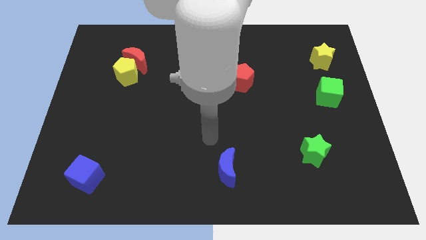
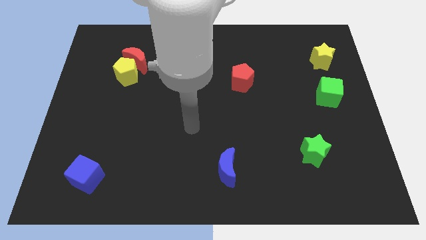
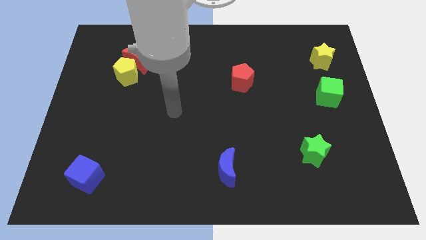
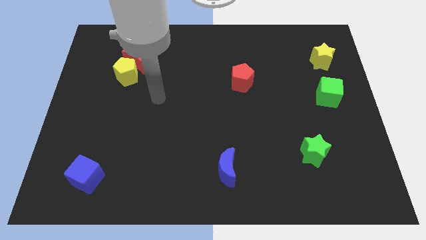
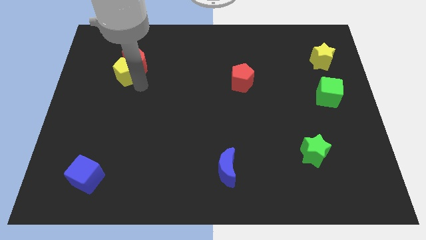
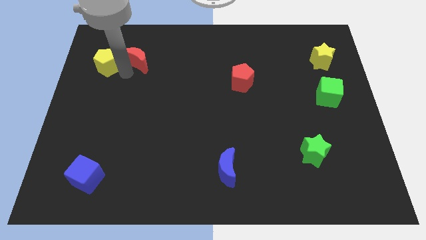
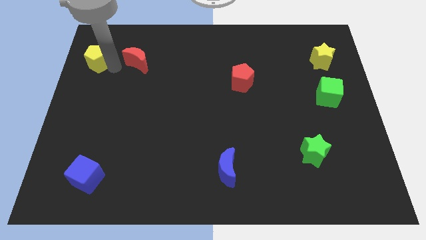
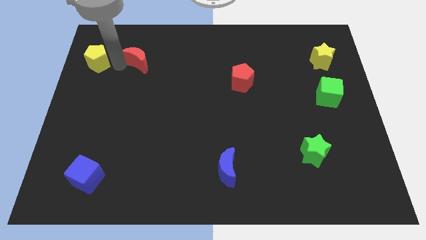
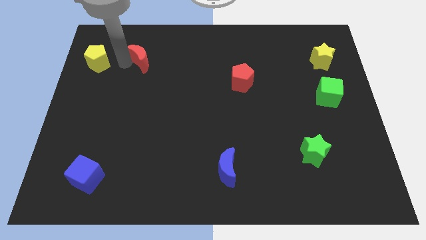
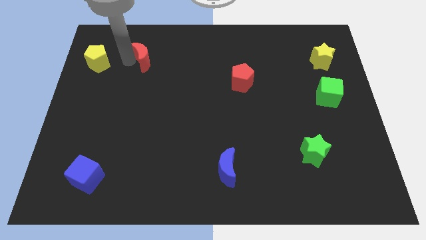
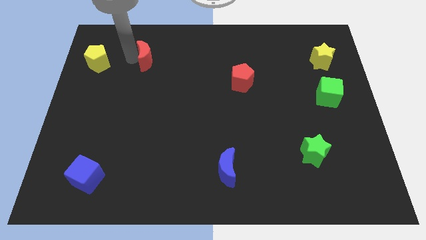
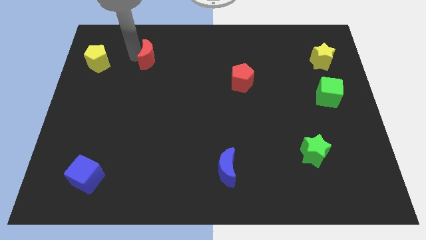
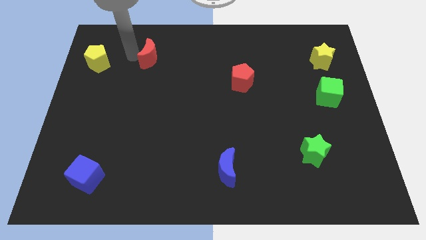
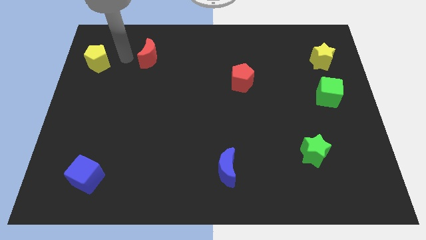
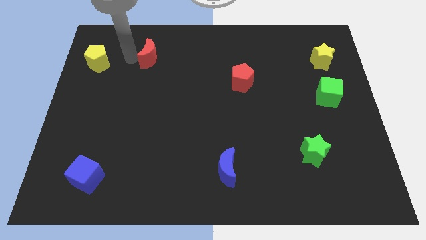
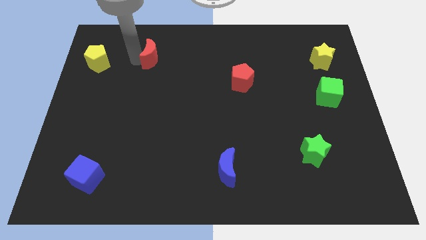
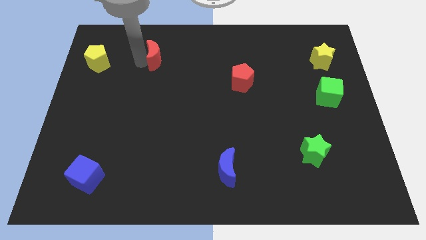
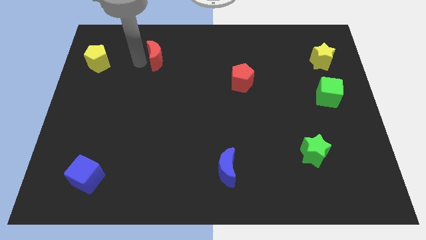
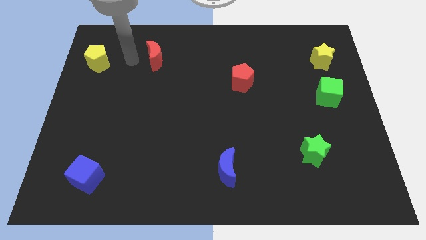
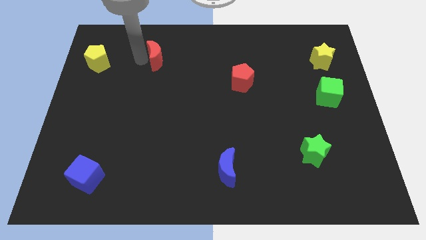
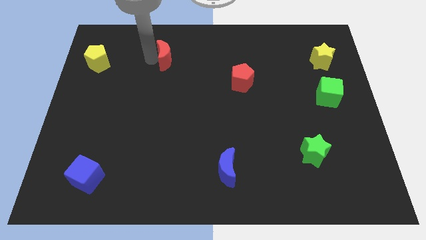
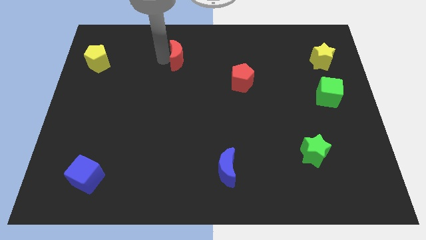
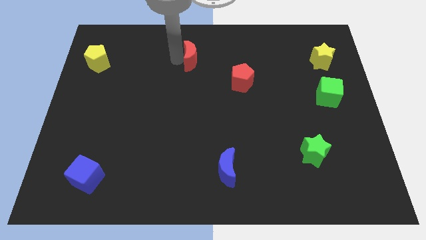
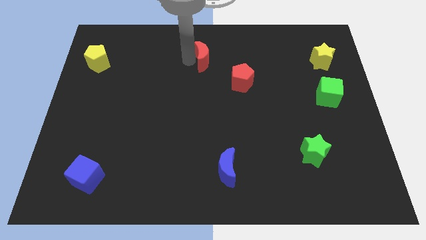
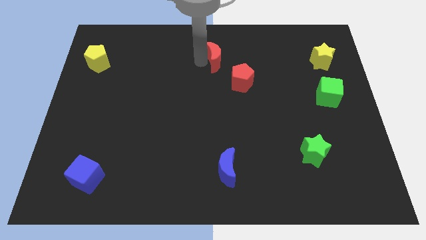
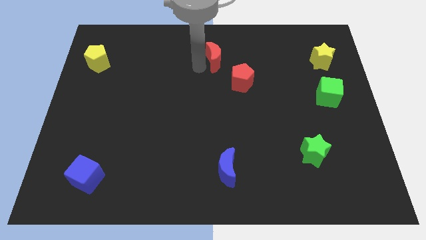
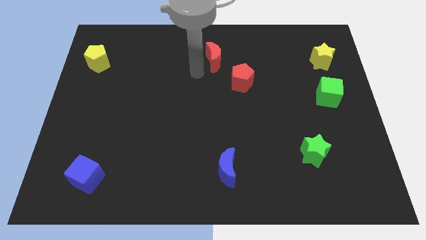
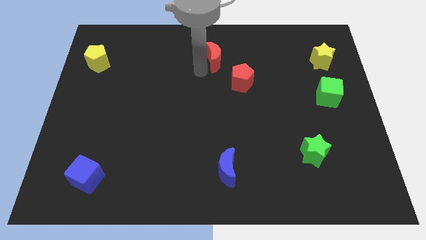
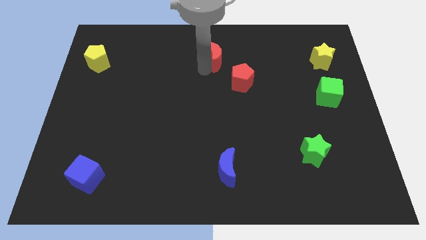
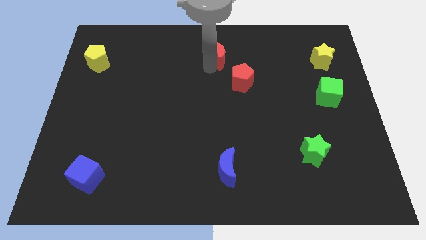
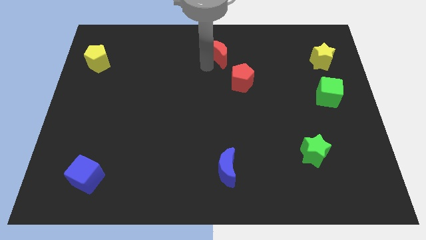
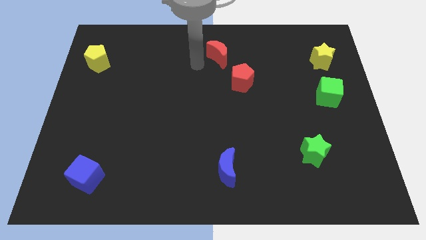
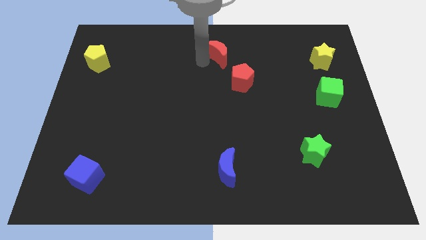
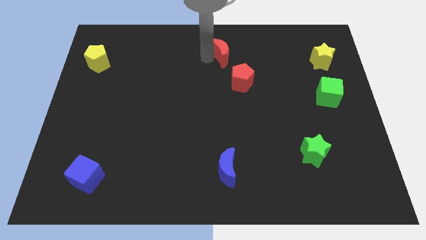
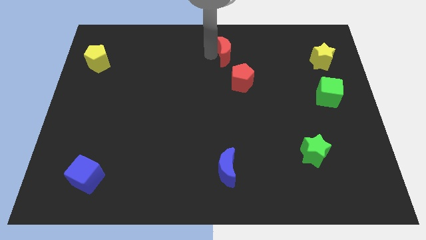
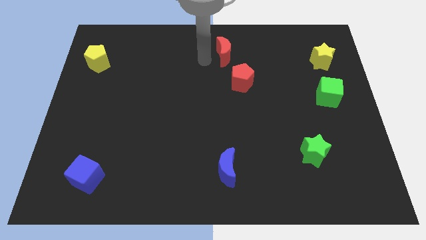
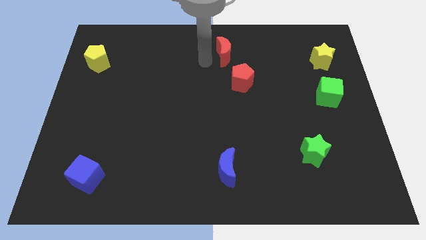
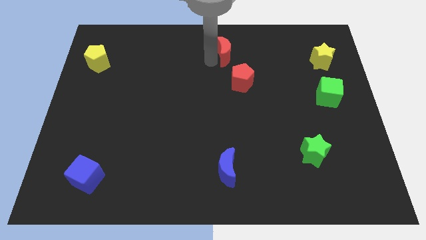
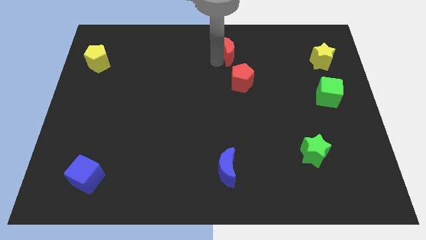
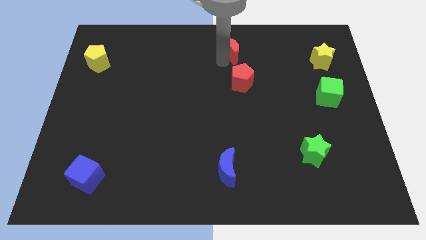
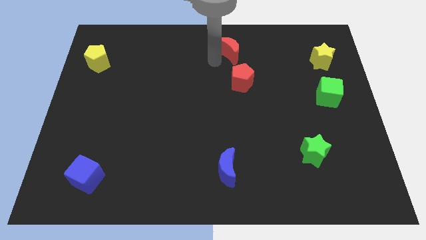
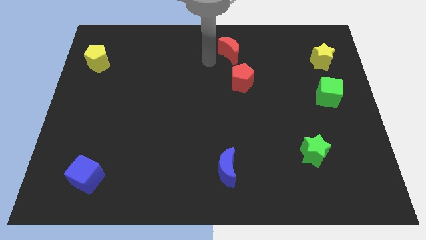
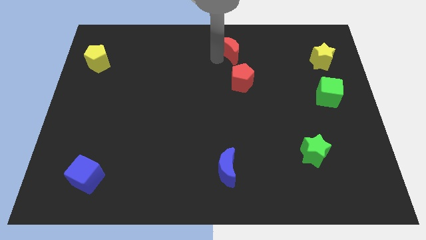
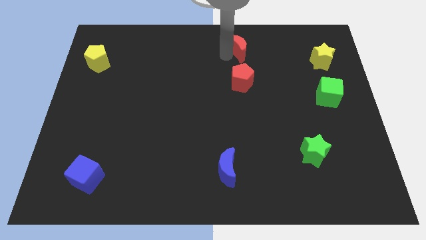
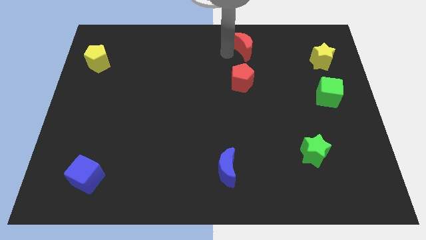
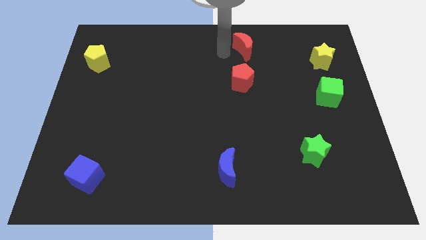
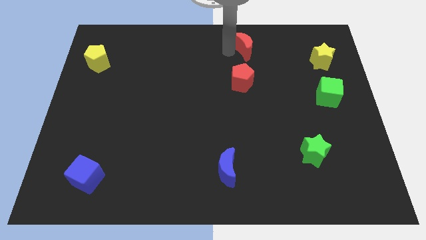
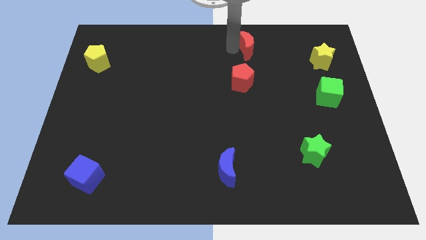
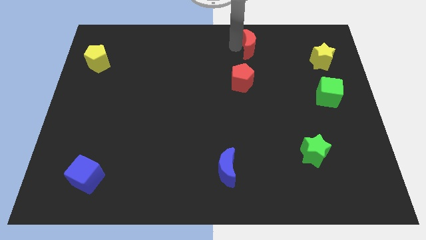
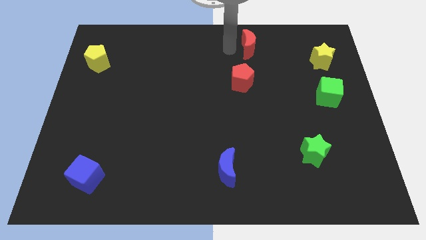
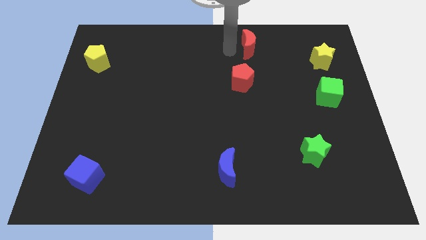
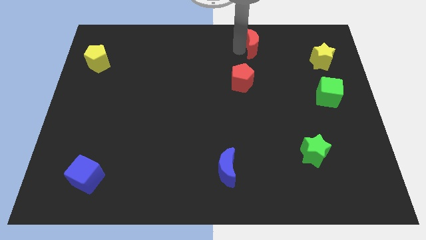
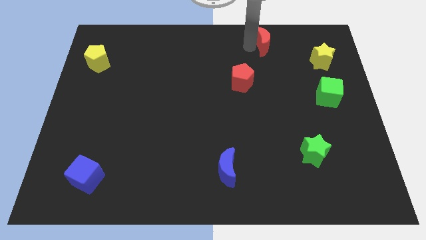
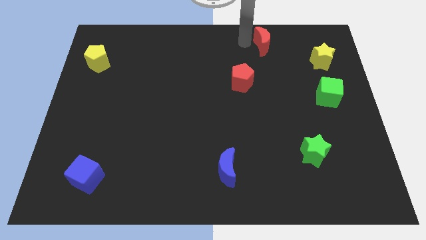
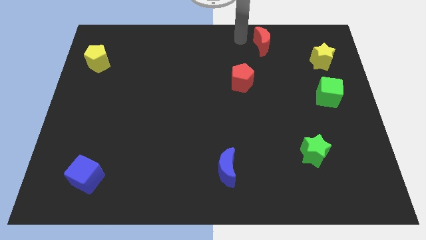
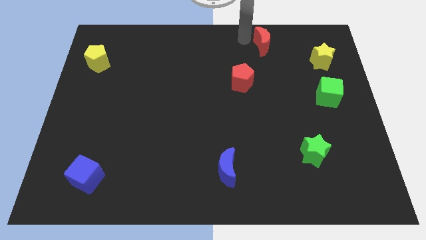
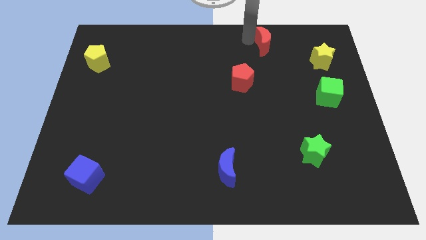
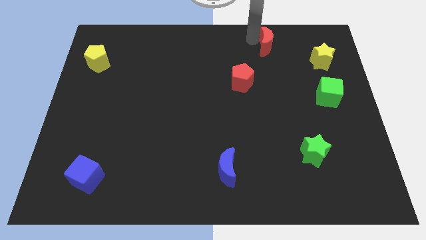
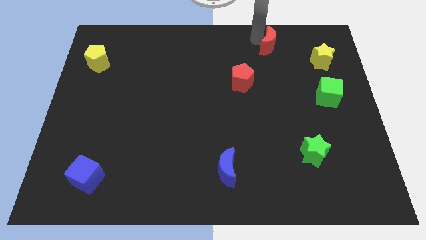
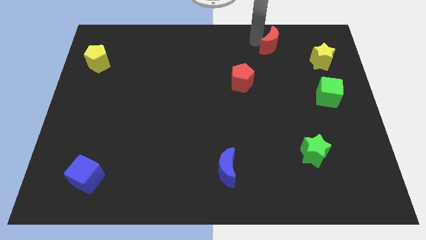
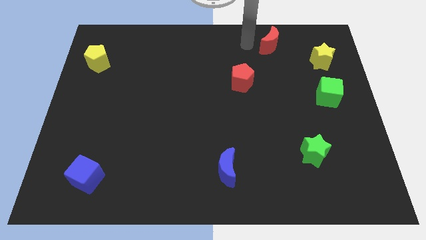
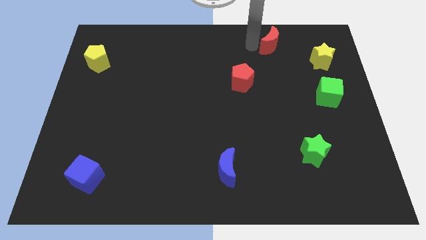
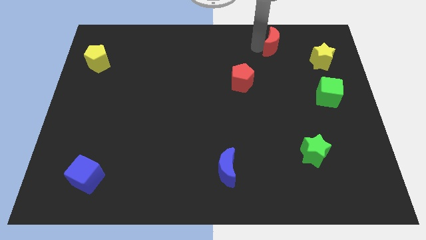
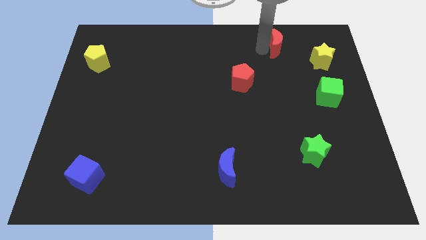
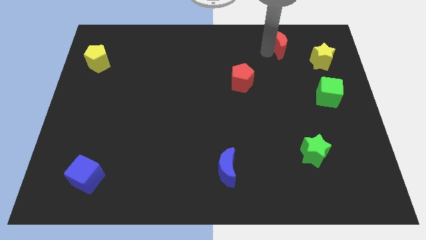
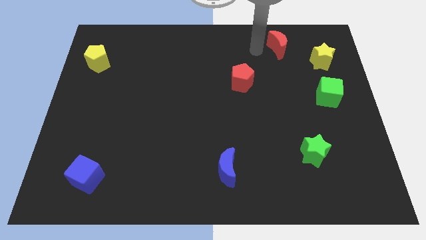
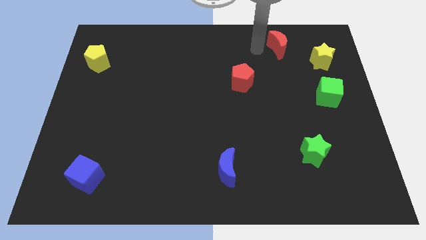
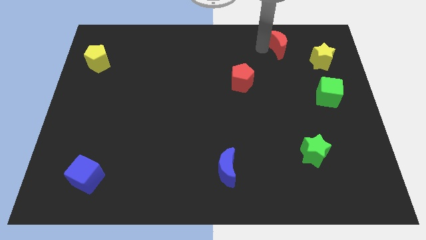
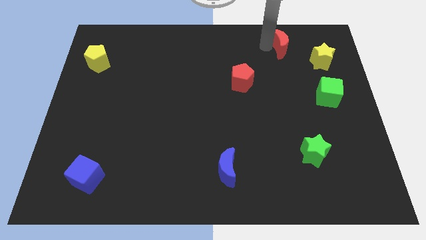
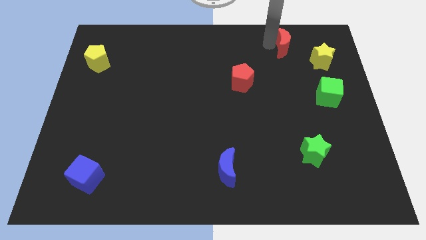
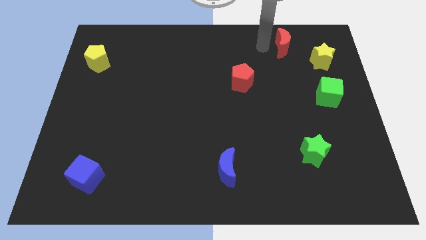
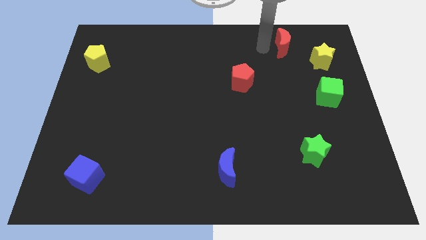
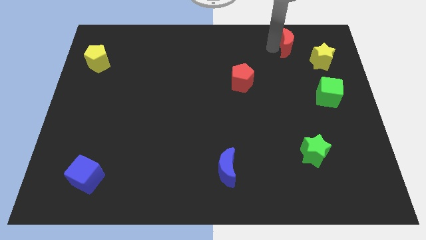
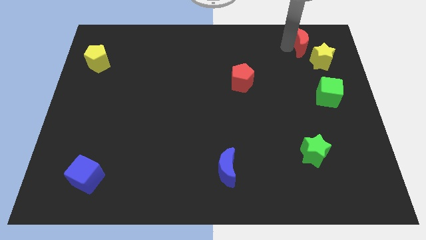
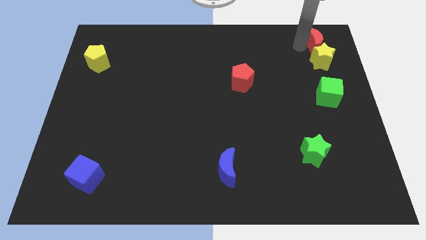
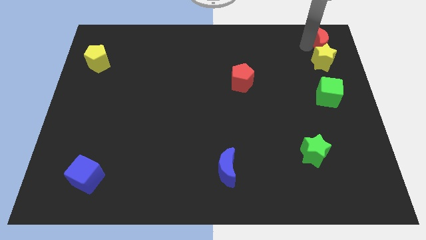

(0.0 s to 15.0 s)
slide the red moon to the upper right corner

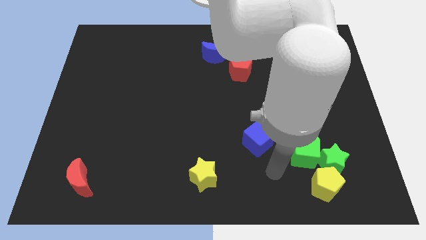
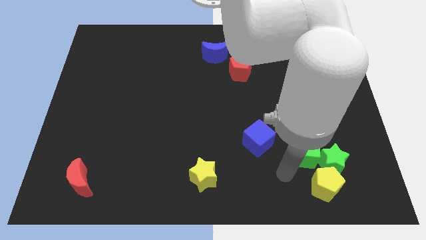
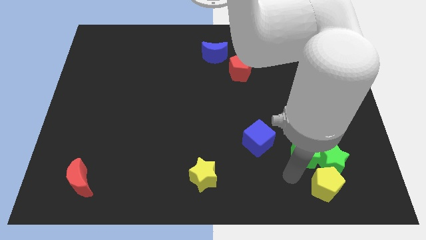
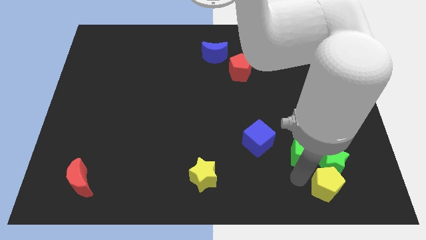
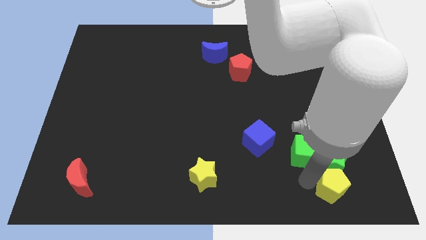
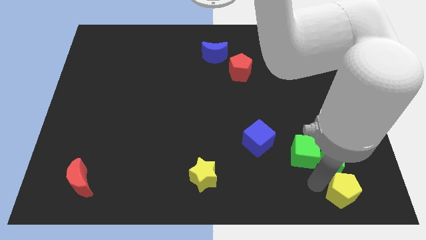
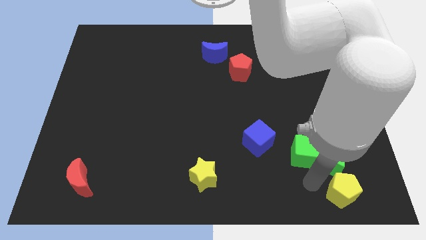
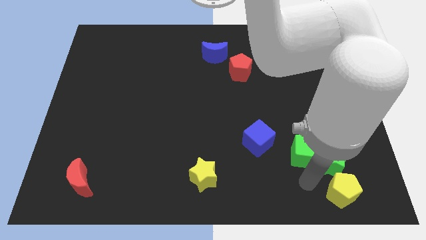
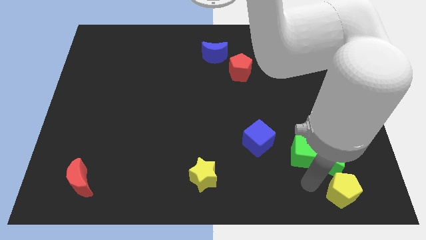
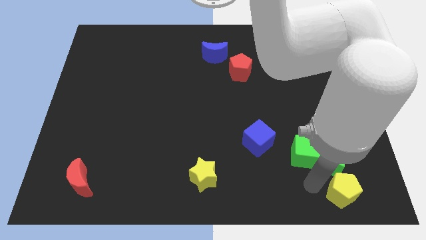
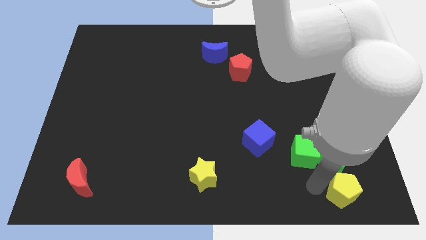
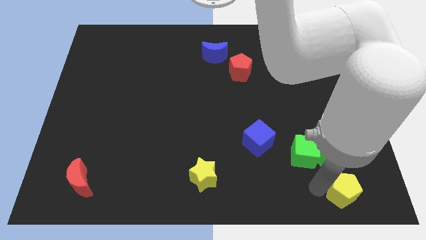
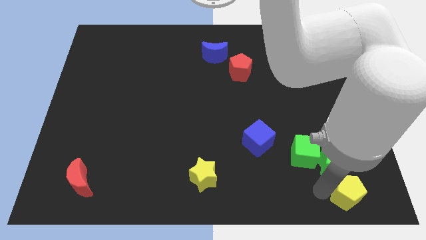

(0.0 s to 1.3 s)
slide the yellow pentagon to the lower right corner
